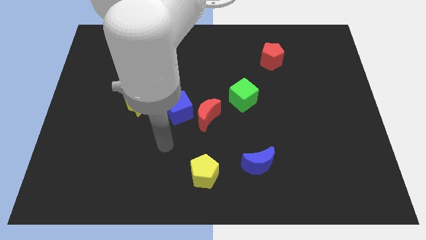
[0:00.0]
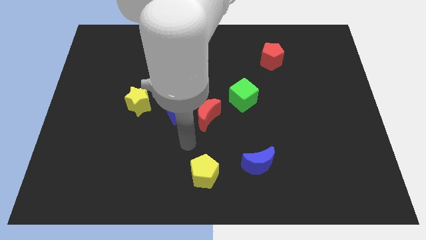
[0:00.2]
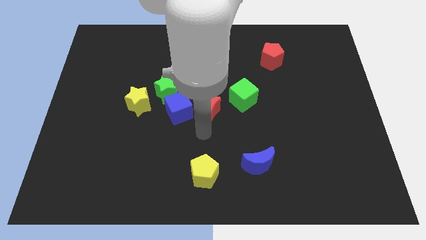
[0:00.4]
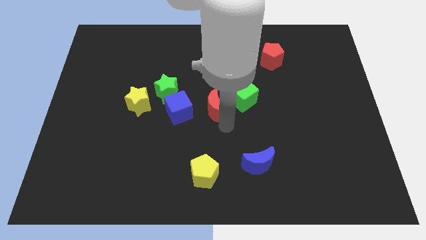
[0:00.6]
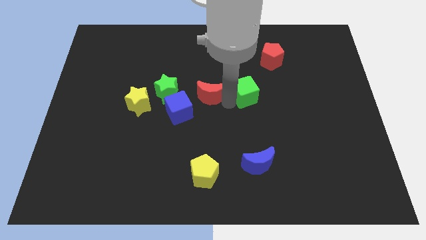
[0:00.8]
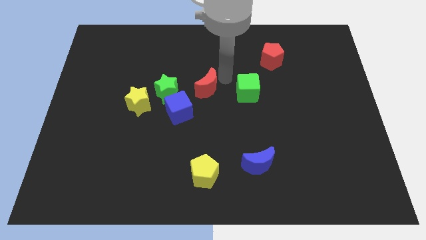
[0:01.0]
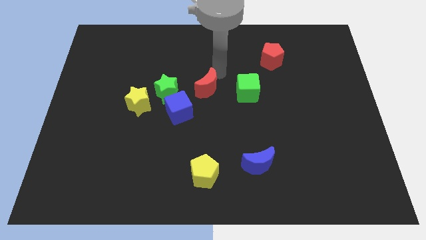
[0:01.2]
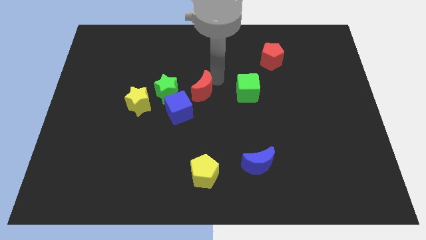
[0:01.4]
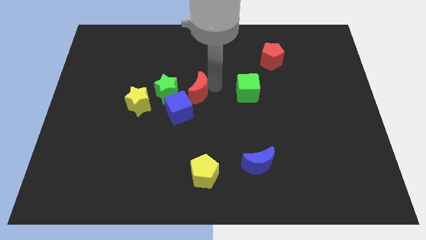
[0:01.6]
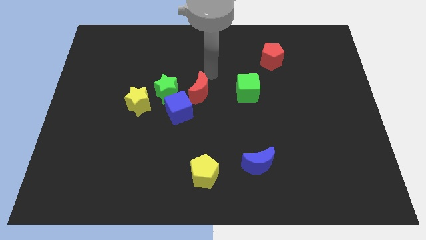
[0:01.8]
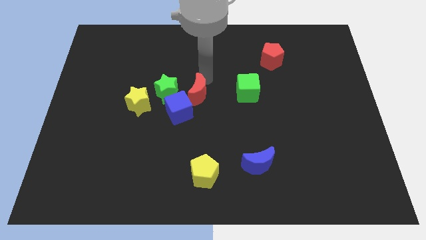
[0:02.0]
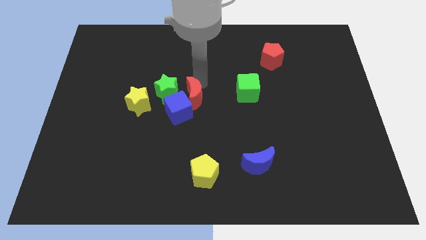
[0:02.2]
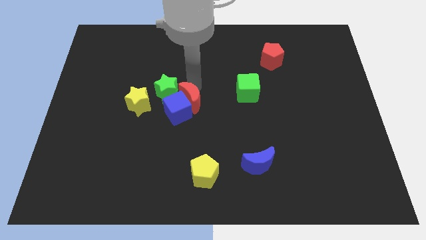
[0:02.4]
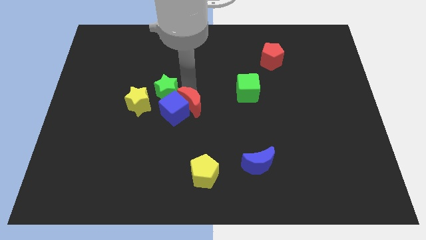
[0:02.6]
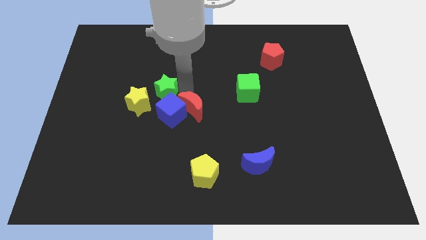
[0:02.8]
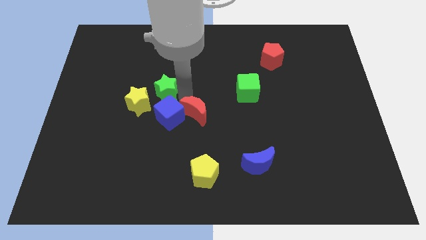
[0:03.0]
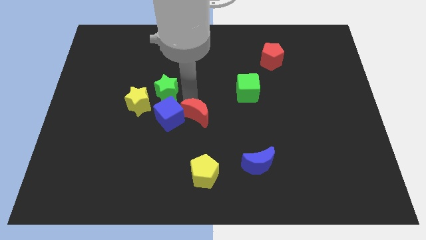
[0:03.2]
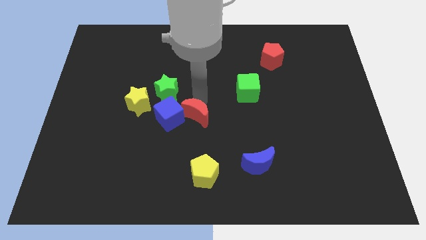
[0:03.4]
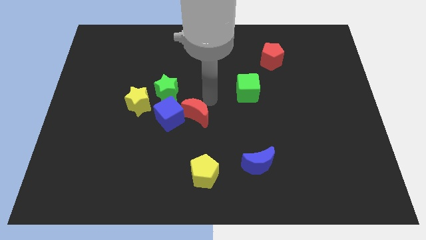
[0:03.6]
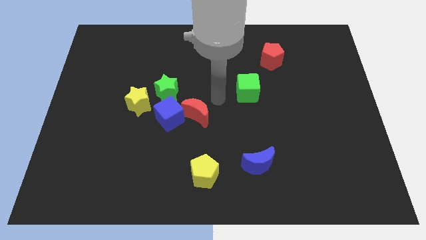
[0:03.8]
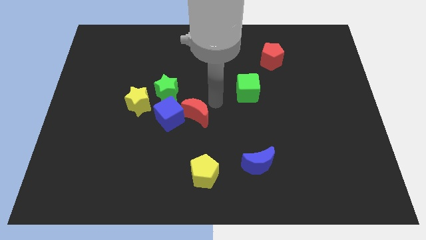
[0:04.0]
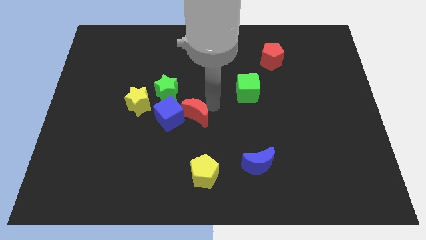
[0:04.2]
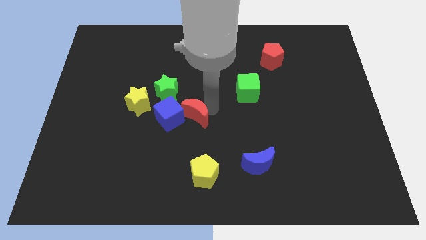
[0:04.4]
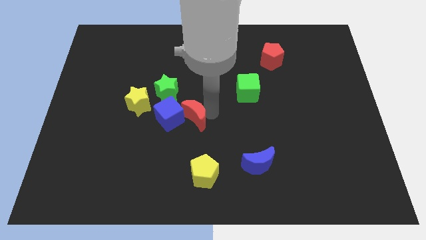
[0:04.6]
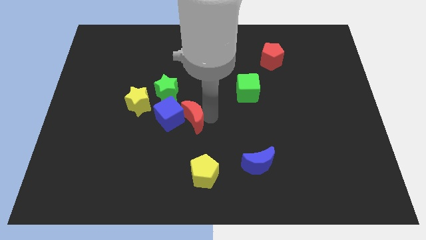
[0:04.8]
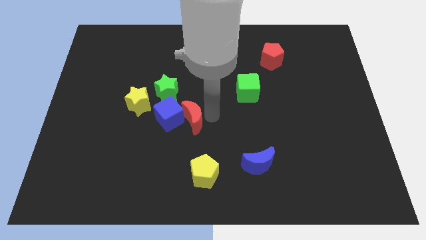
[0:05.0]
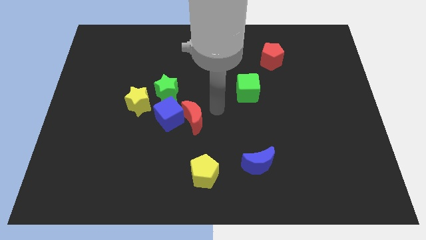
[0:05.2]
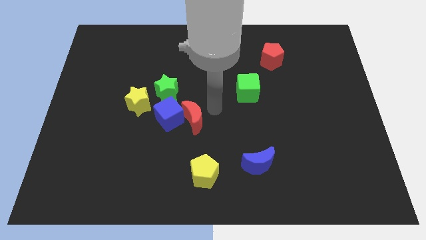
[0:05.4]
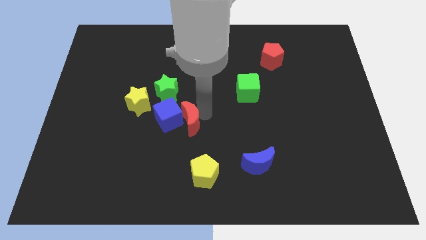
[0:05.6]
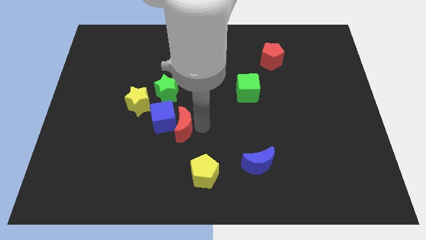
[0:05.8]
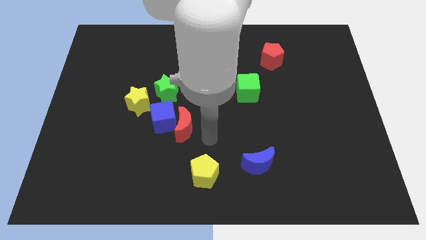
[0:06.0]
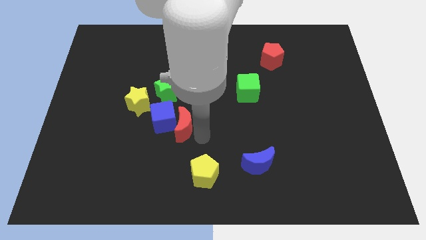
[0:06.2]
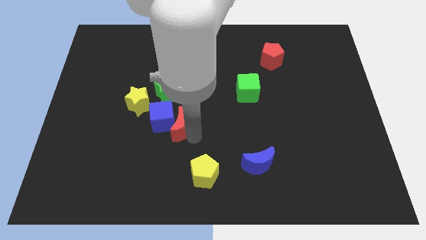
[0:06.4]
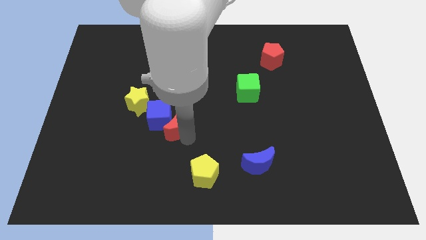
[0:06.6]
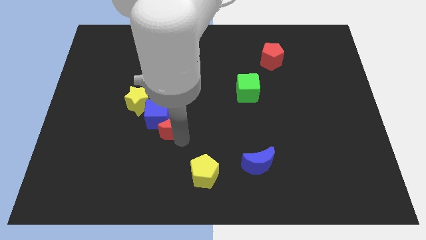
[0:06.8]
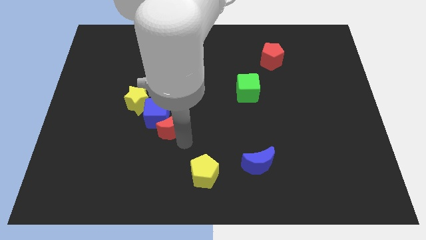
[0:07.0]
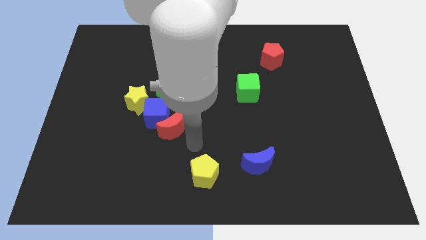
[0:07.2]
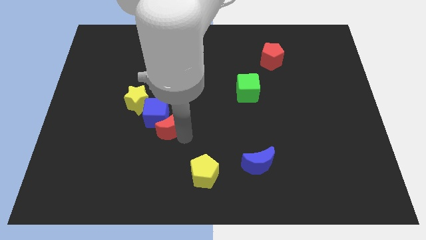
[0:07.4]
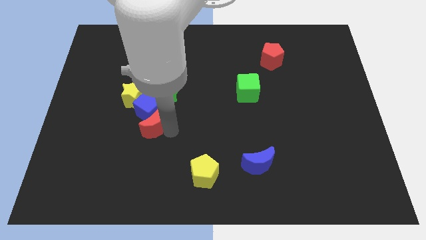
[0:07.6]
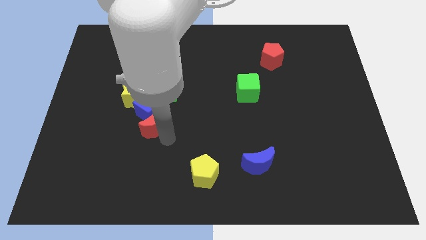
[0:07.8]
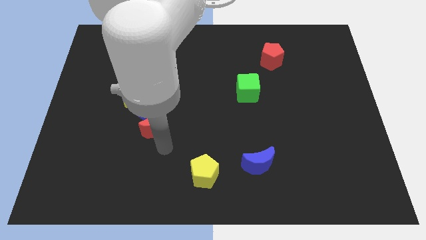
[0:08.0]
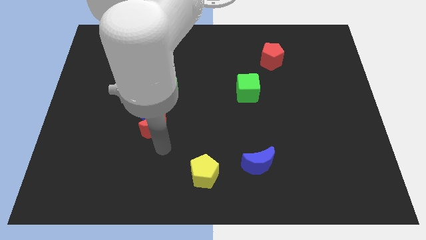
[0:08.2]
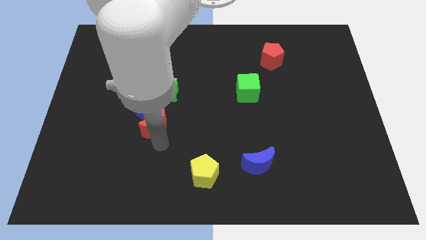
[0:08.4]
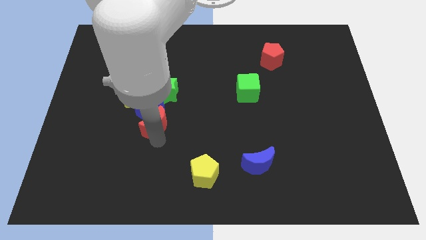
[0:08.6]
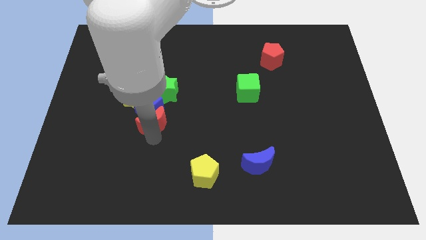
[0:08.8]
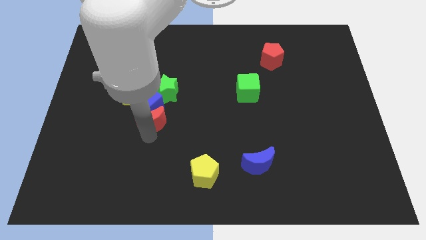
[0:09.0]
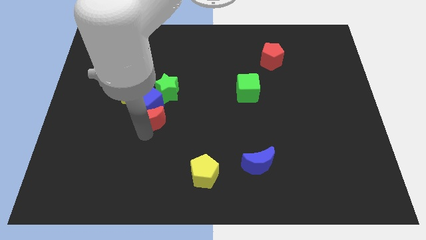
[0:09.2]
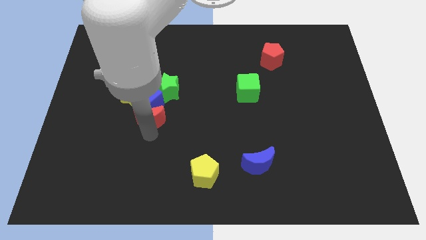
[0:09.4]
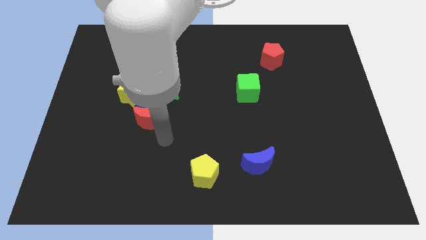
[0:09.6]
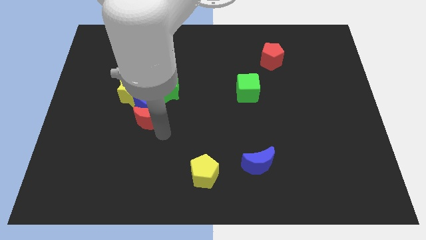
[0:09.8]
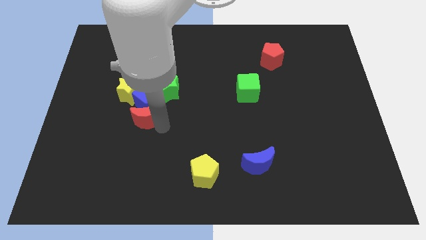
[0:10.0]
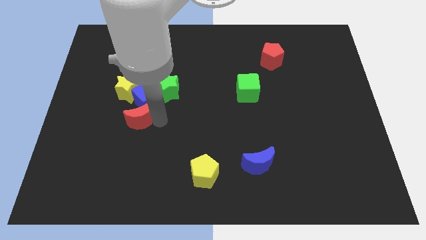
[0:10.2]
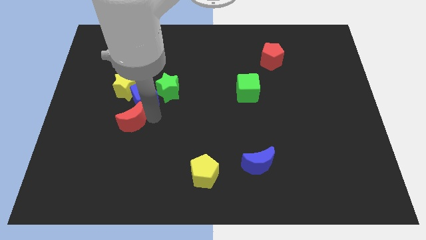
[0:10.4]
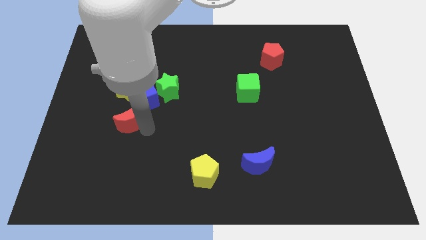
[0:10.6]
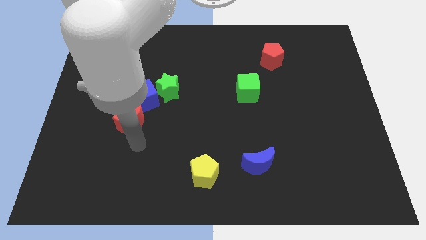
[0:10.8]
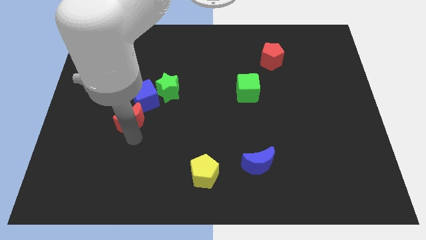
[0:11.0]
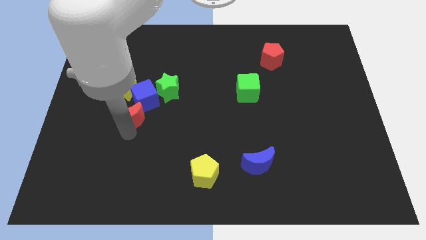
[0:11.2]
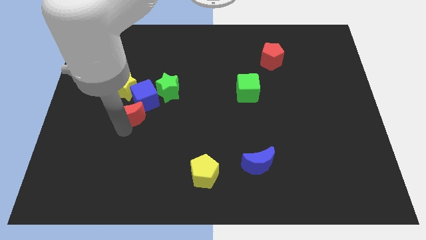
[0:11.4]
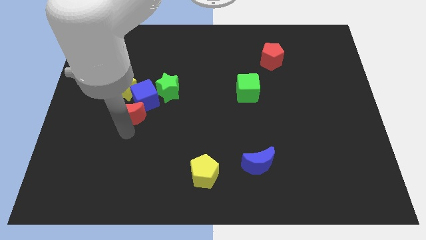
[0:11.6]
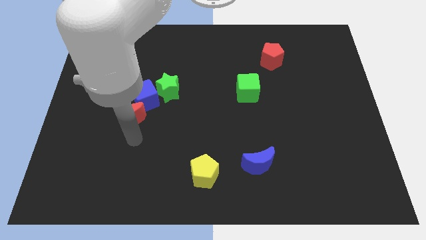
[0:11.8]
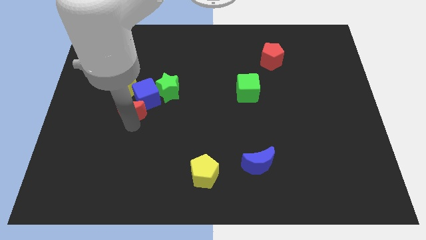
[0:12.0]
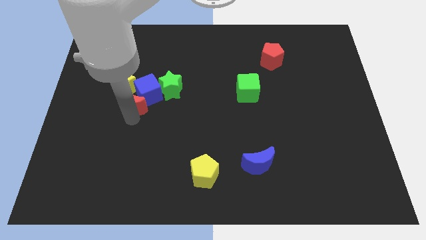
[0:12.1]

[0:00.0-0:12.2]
slide the red moon towards the yellow star
